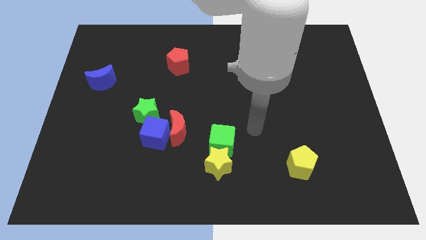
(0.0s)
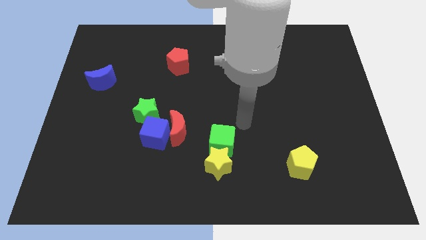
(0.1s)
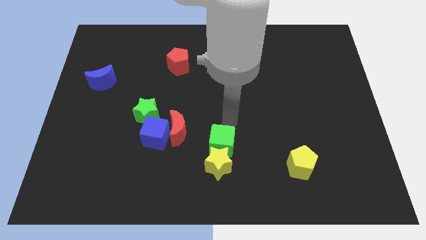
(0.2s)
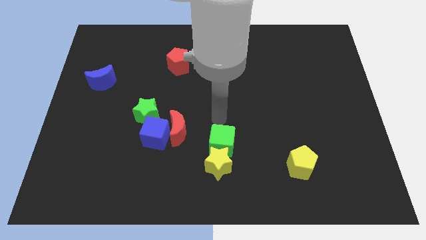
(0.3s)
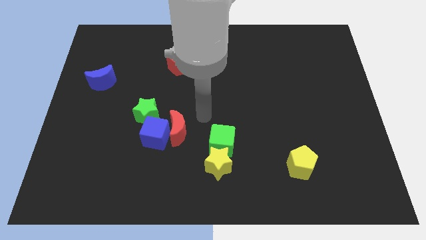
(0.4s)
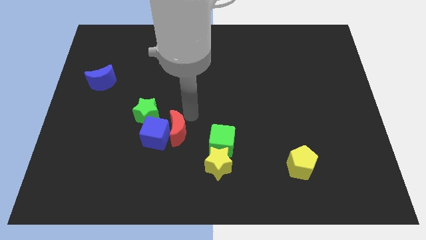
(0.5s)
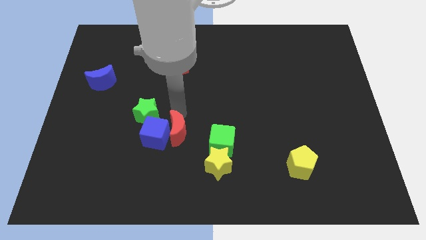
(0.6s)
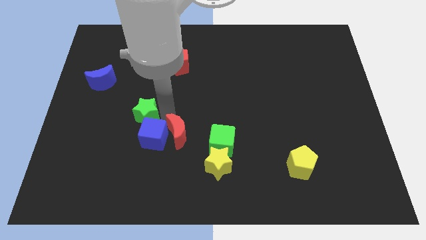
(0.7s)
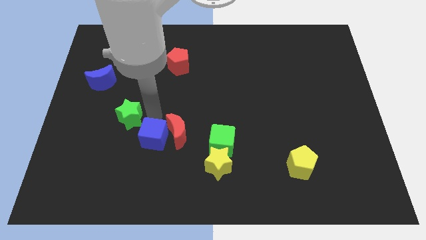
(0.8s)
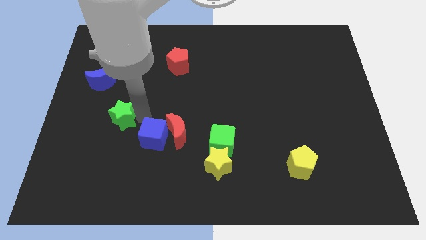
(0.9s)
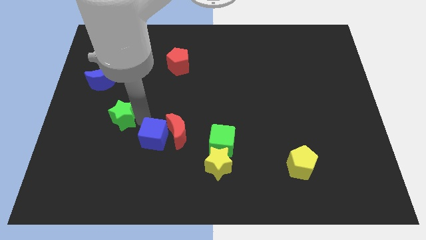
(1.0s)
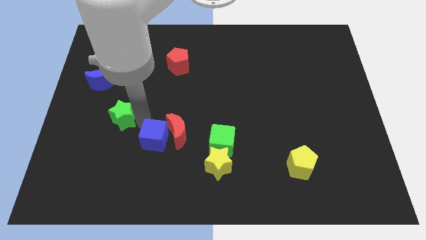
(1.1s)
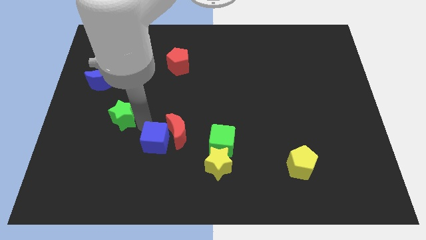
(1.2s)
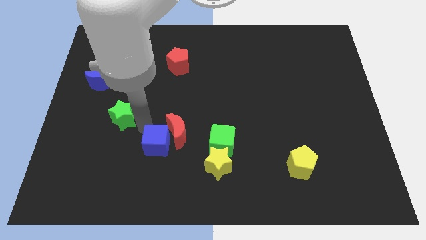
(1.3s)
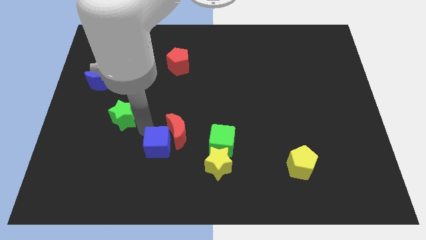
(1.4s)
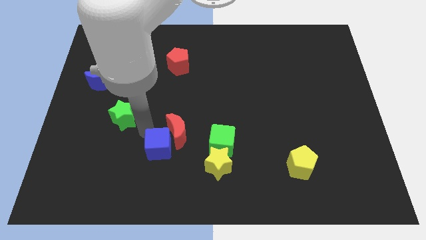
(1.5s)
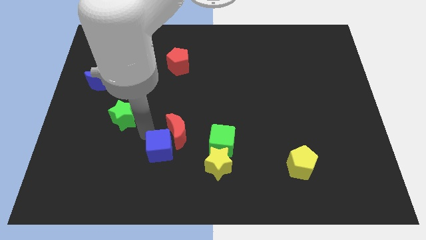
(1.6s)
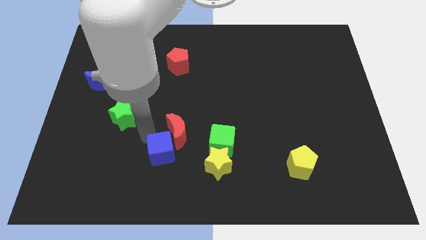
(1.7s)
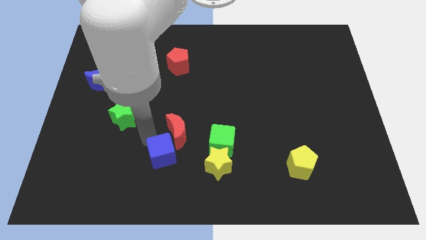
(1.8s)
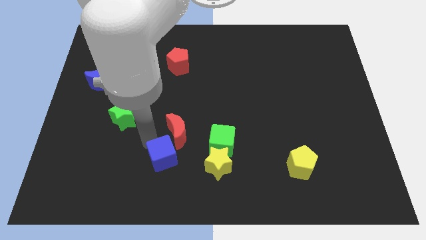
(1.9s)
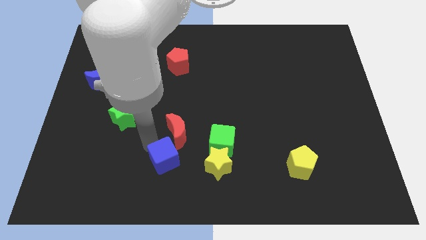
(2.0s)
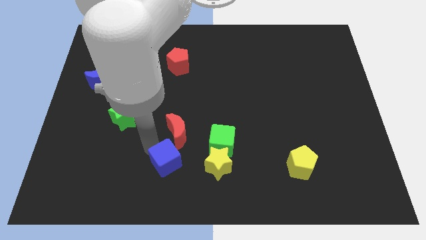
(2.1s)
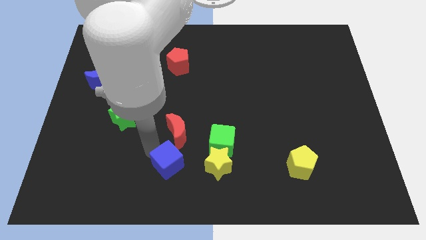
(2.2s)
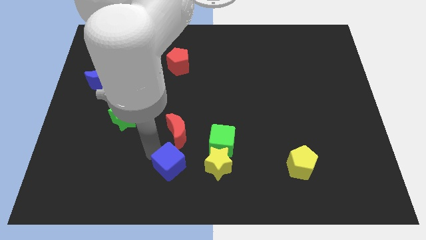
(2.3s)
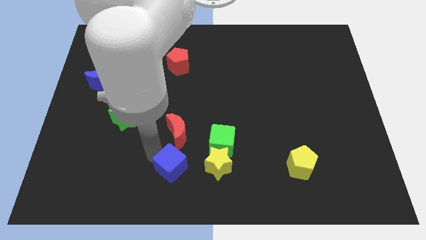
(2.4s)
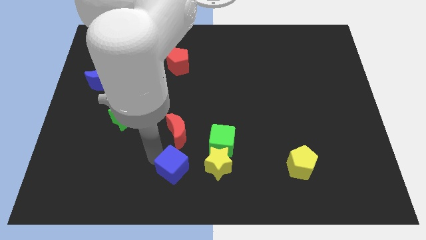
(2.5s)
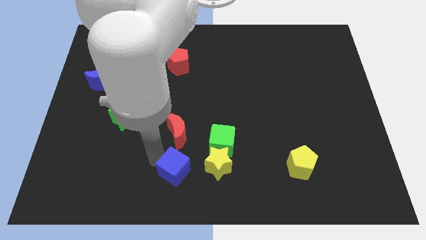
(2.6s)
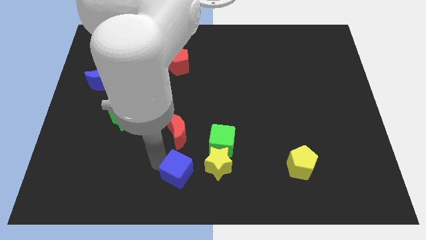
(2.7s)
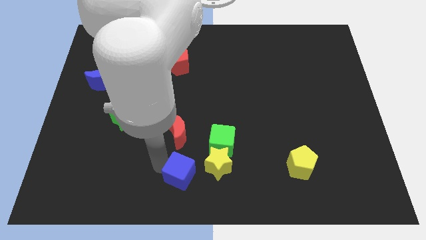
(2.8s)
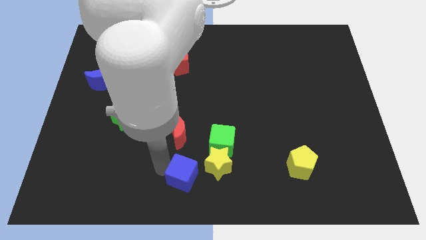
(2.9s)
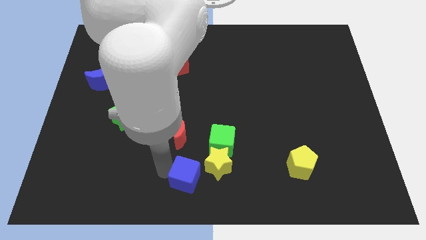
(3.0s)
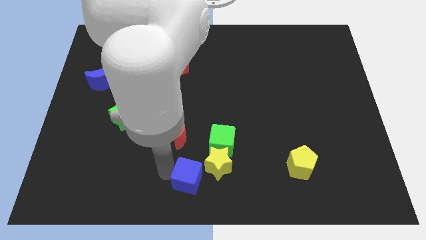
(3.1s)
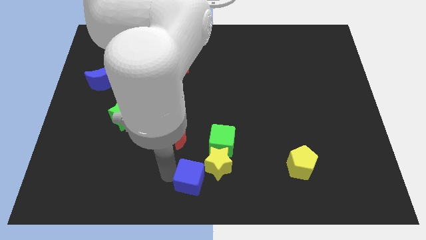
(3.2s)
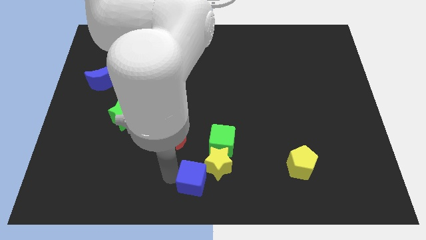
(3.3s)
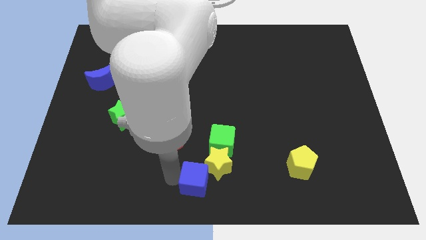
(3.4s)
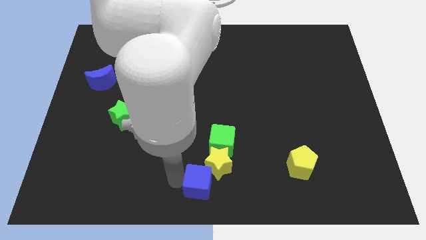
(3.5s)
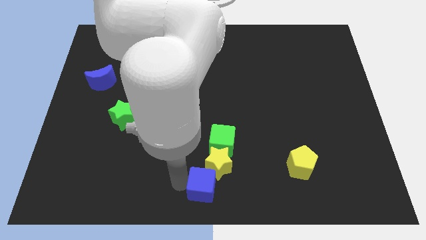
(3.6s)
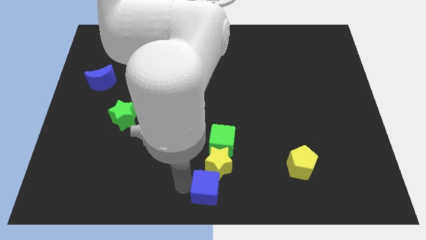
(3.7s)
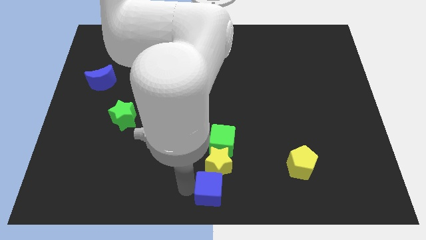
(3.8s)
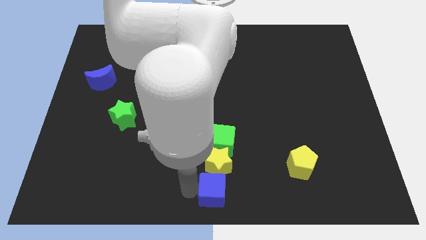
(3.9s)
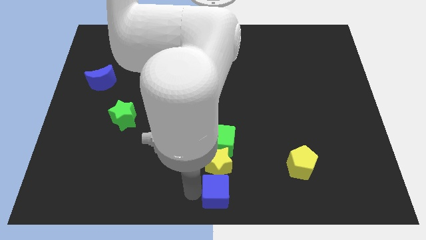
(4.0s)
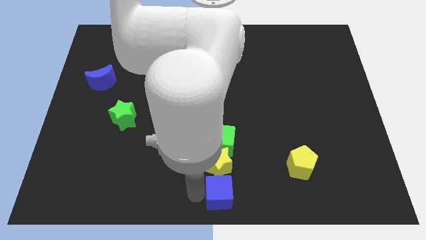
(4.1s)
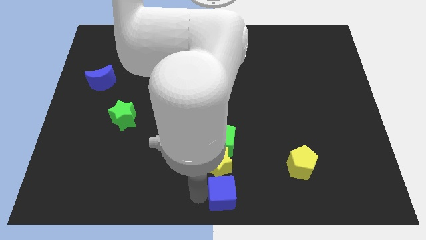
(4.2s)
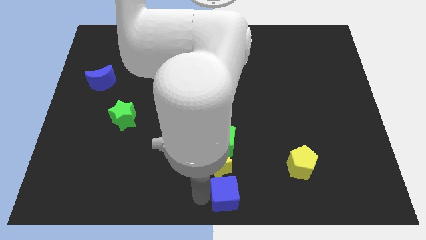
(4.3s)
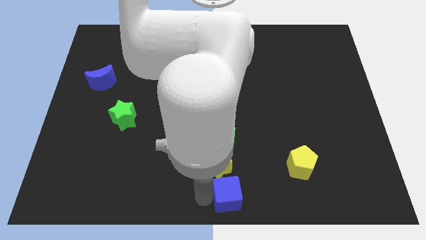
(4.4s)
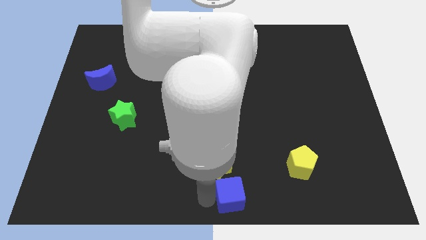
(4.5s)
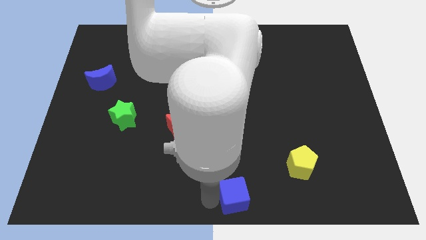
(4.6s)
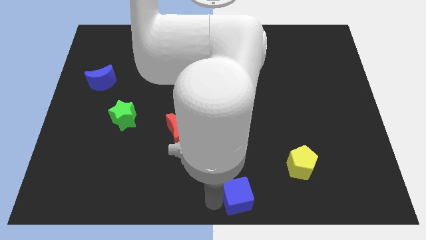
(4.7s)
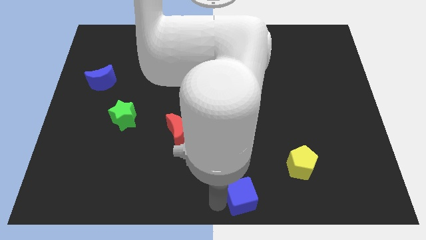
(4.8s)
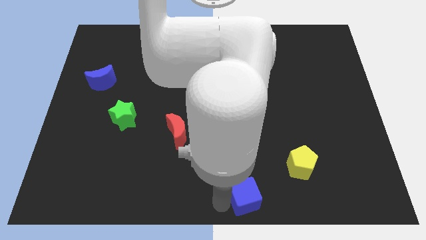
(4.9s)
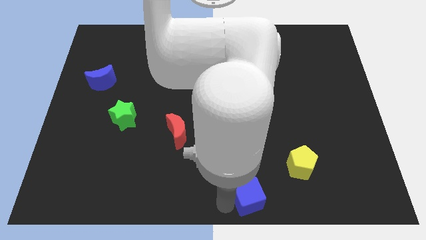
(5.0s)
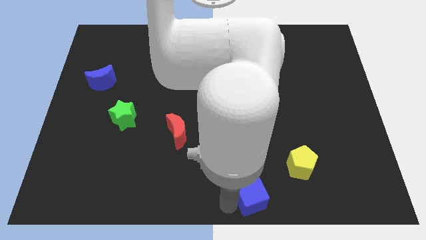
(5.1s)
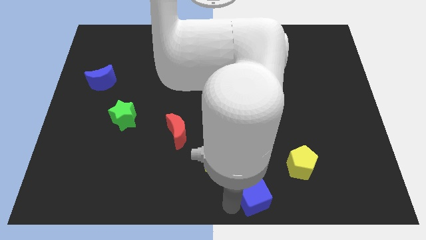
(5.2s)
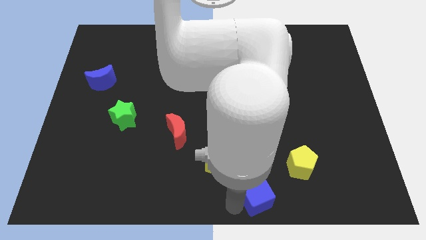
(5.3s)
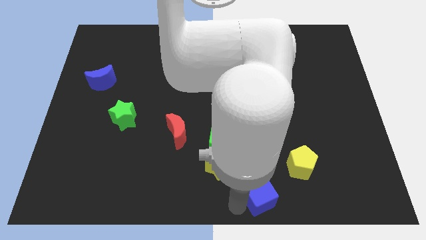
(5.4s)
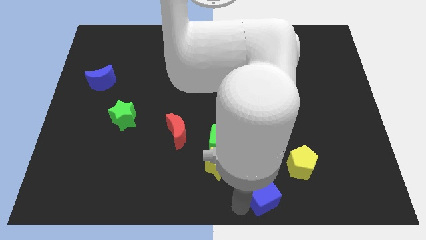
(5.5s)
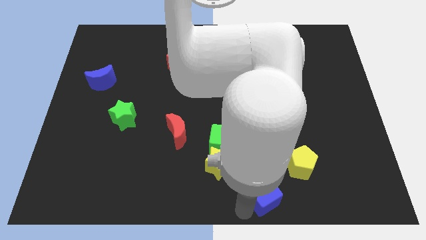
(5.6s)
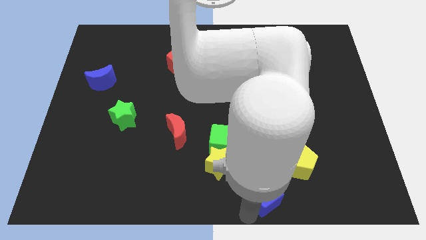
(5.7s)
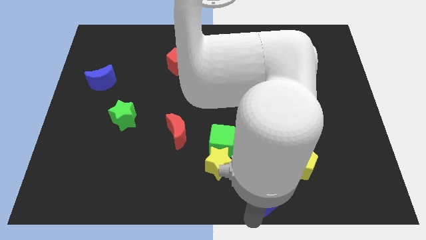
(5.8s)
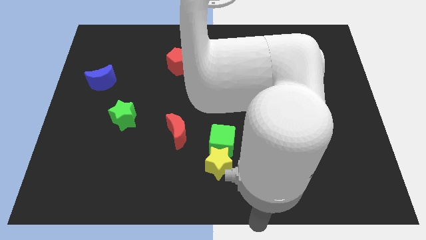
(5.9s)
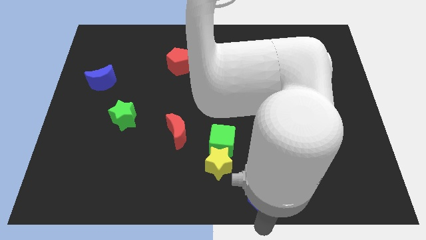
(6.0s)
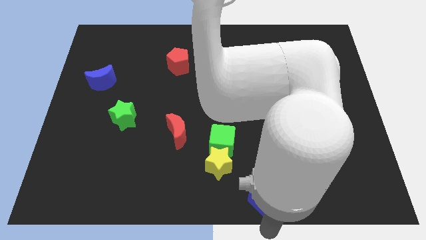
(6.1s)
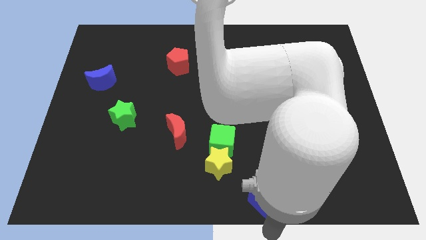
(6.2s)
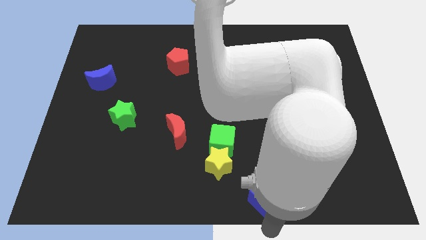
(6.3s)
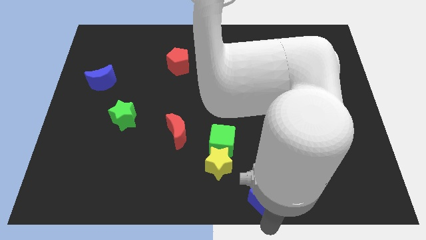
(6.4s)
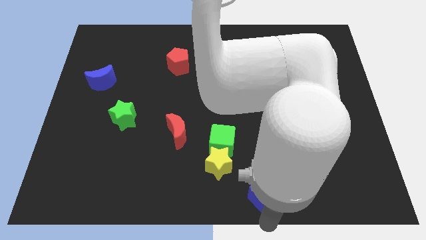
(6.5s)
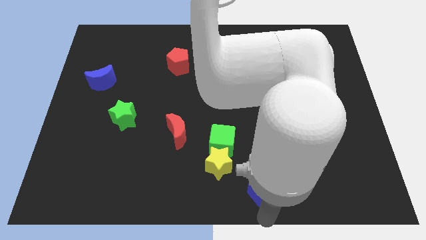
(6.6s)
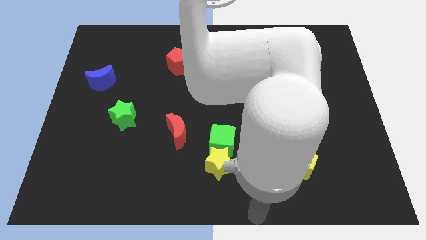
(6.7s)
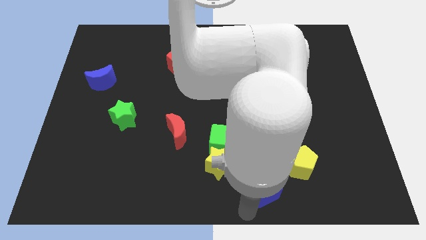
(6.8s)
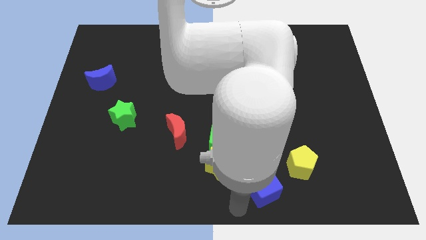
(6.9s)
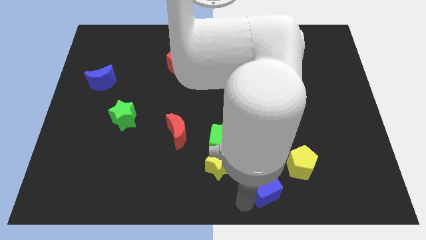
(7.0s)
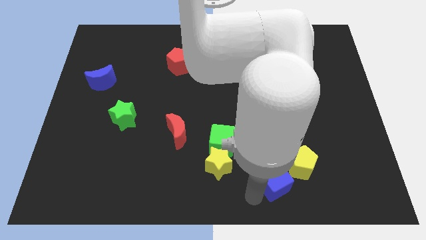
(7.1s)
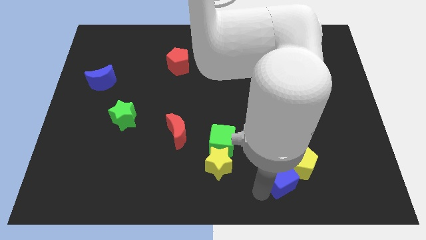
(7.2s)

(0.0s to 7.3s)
put the blue cube next to the yellow pentagon
